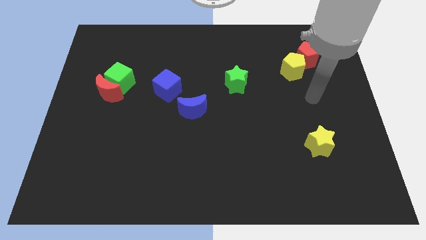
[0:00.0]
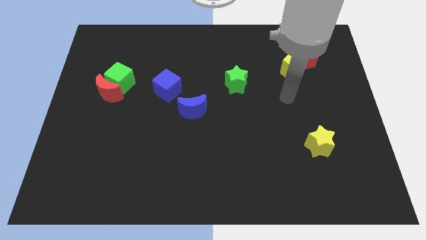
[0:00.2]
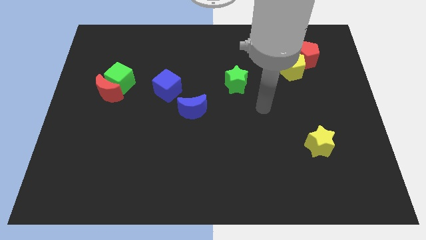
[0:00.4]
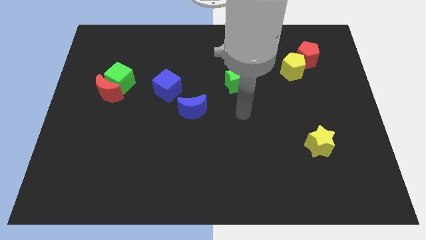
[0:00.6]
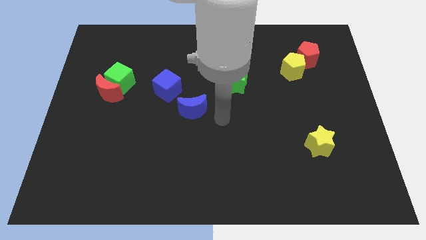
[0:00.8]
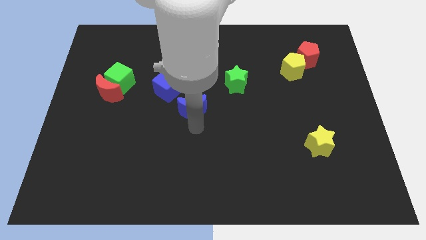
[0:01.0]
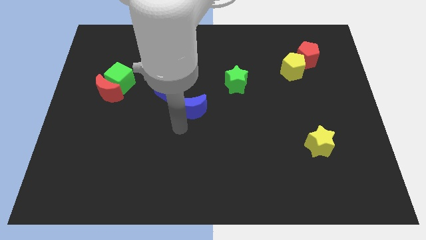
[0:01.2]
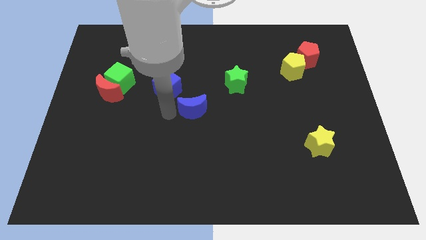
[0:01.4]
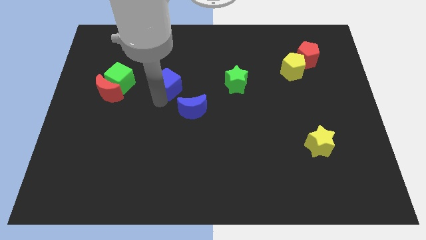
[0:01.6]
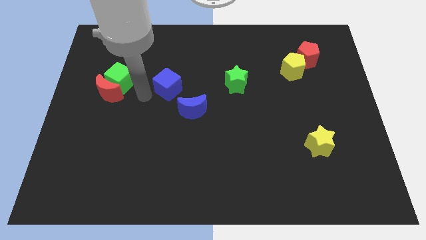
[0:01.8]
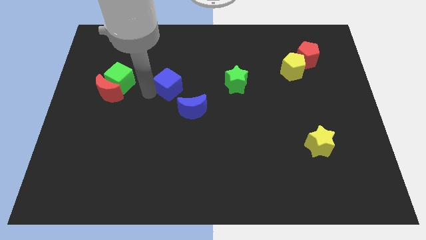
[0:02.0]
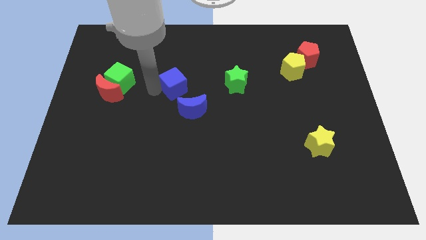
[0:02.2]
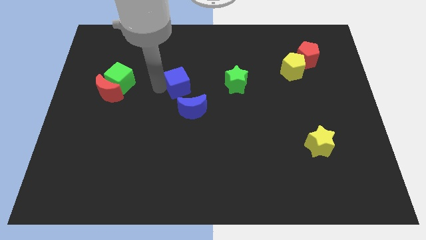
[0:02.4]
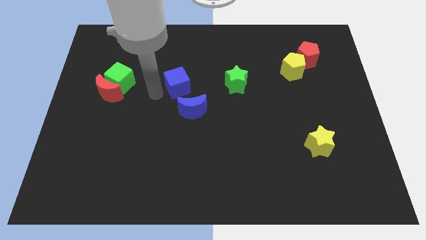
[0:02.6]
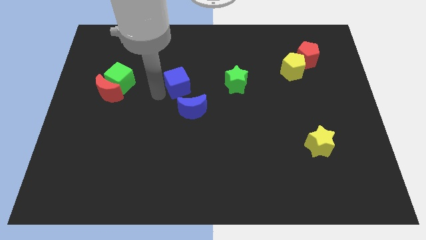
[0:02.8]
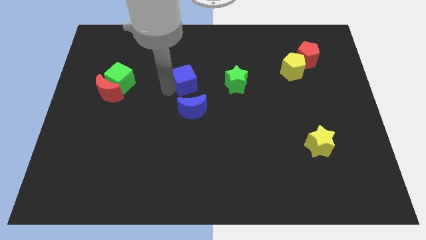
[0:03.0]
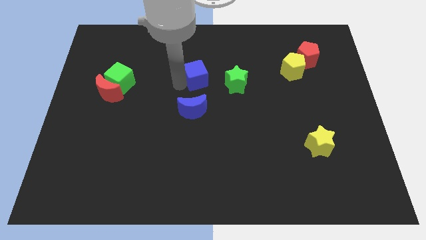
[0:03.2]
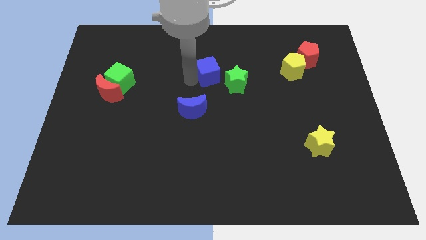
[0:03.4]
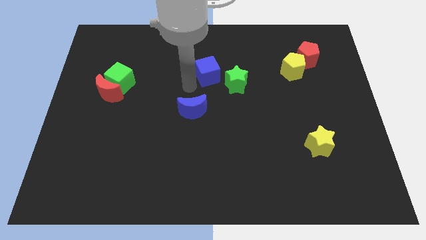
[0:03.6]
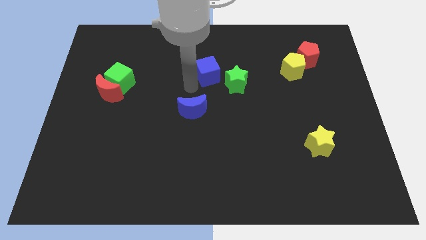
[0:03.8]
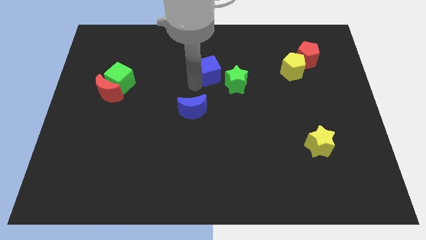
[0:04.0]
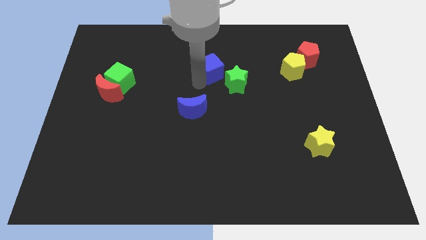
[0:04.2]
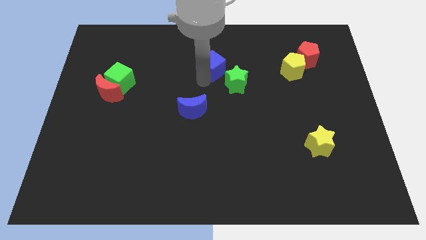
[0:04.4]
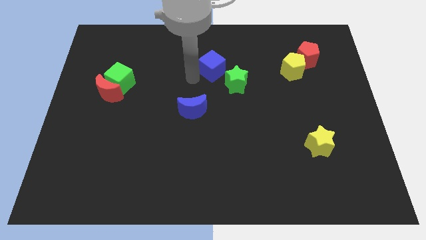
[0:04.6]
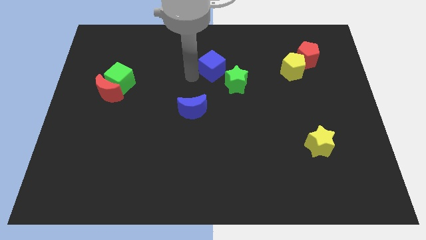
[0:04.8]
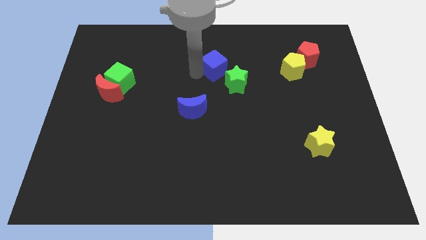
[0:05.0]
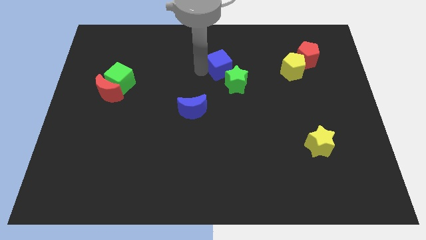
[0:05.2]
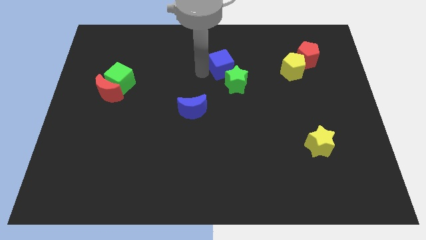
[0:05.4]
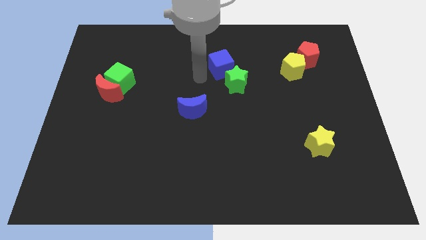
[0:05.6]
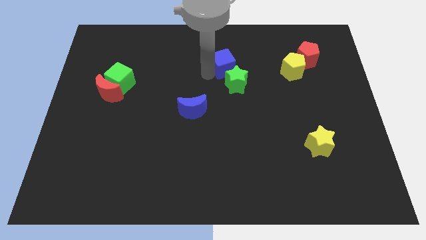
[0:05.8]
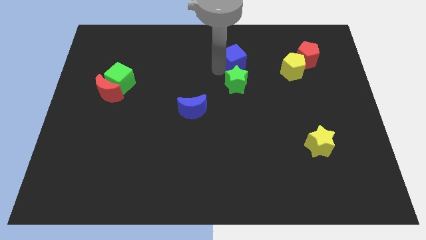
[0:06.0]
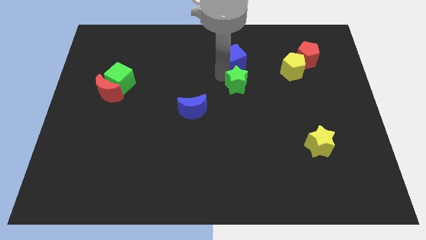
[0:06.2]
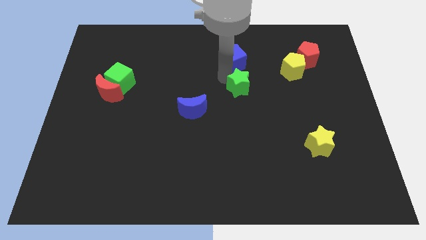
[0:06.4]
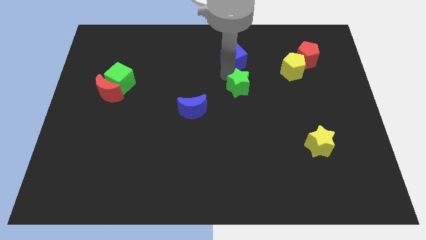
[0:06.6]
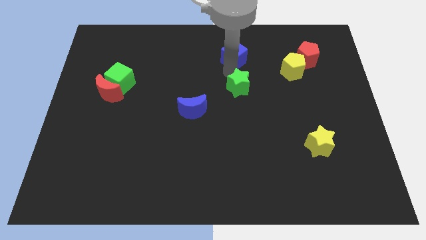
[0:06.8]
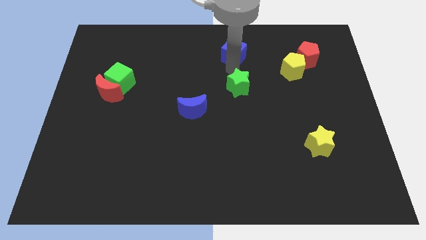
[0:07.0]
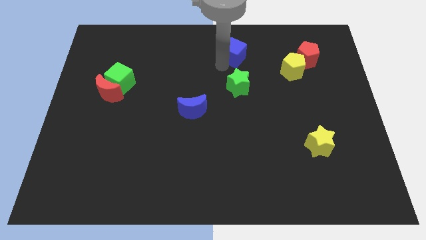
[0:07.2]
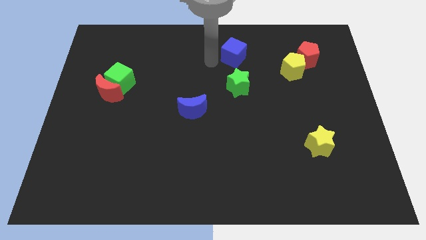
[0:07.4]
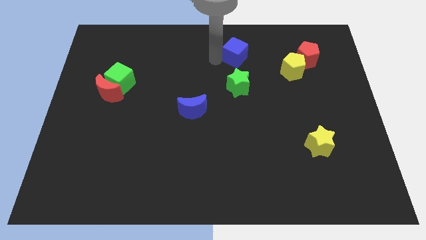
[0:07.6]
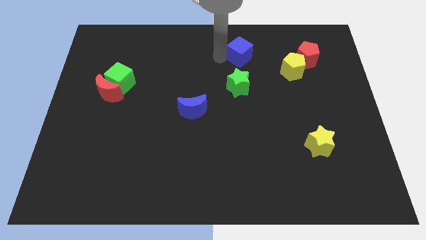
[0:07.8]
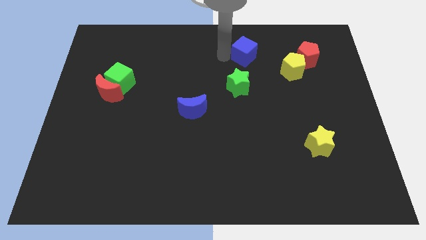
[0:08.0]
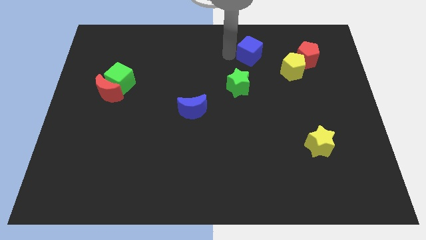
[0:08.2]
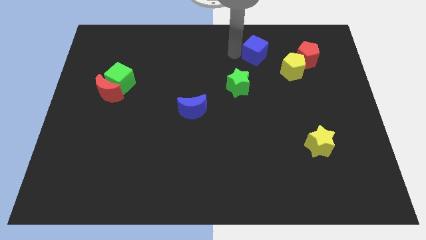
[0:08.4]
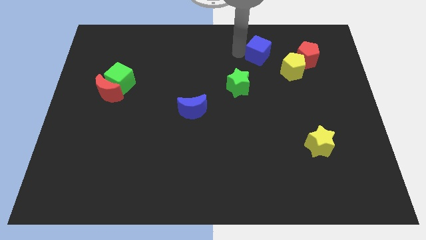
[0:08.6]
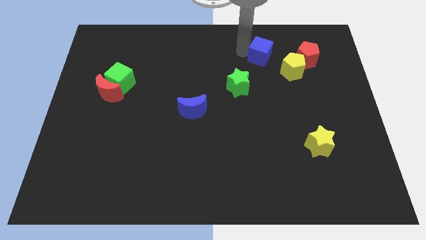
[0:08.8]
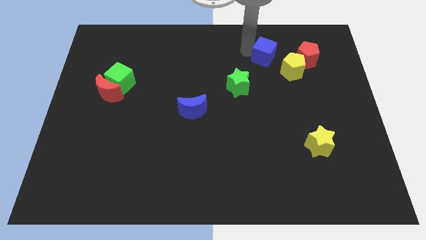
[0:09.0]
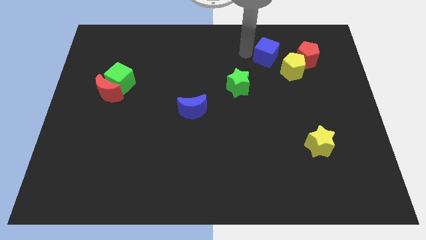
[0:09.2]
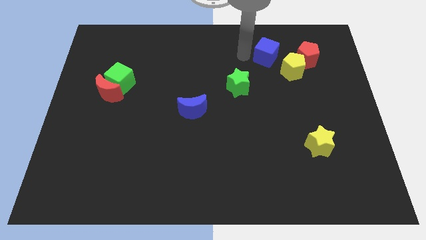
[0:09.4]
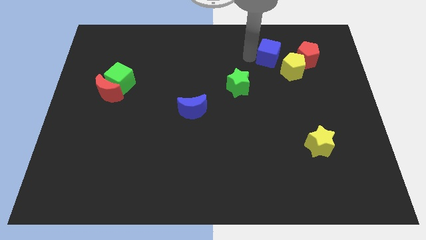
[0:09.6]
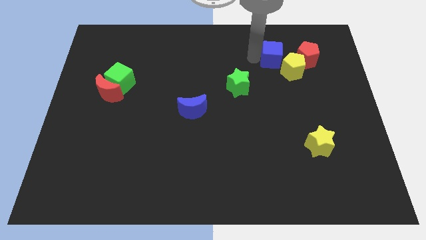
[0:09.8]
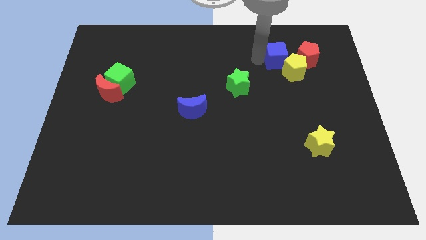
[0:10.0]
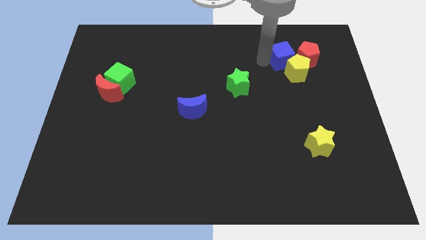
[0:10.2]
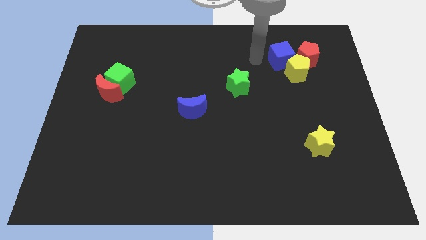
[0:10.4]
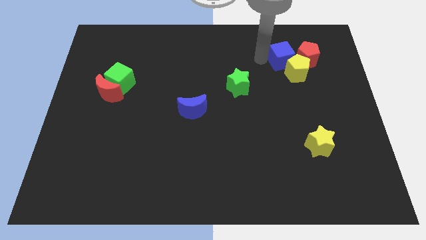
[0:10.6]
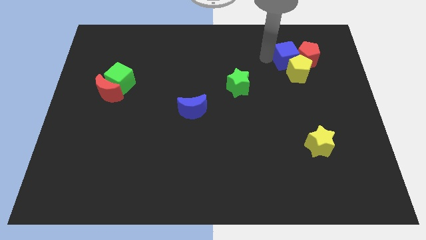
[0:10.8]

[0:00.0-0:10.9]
slide the blue cube next to the red pentagon

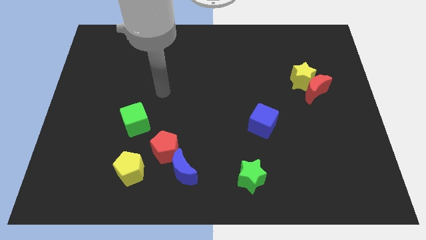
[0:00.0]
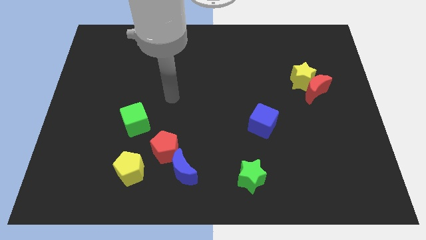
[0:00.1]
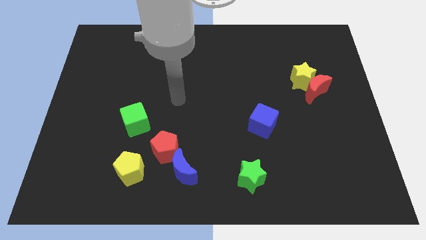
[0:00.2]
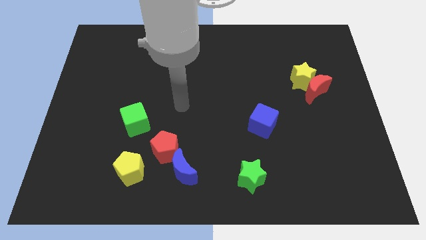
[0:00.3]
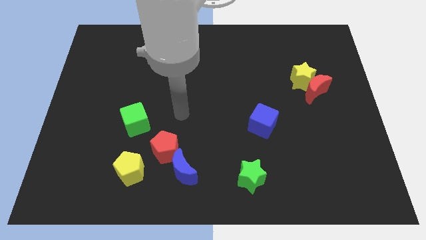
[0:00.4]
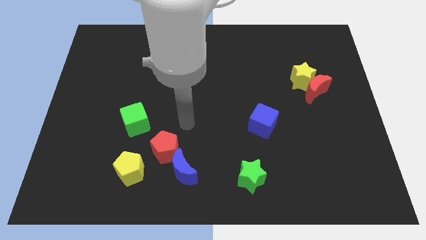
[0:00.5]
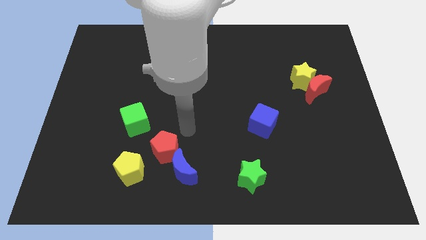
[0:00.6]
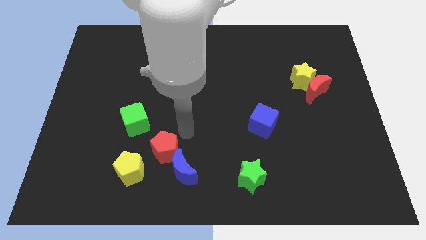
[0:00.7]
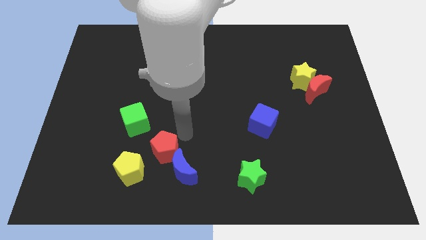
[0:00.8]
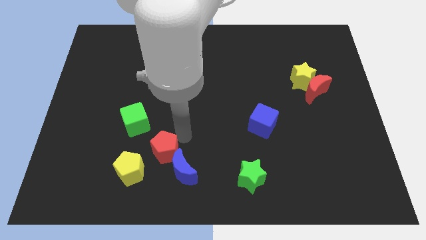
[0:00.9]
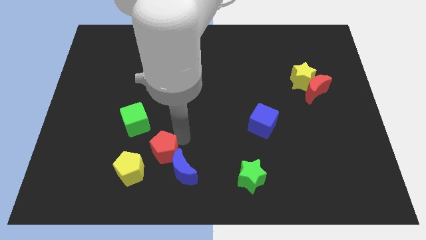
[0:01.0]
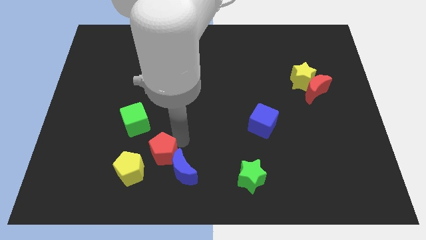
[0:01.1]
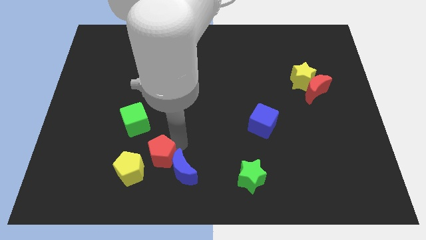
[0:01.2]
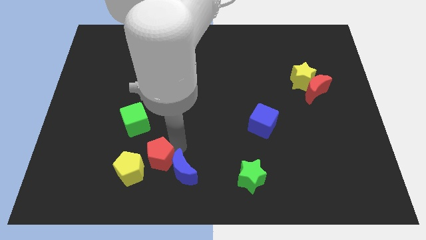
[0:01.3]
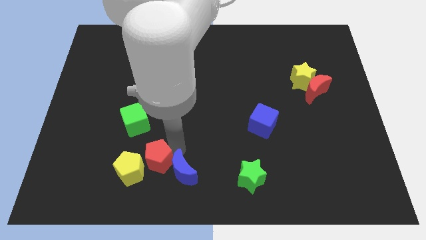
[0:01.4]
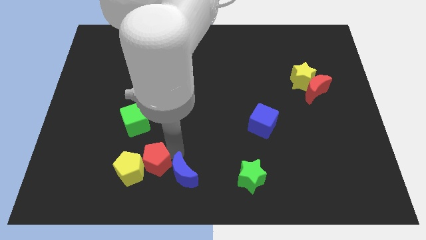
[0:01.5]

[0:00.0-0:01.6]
move the red pentagon to the yellow pentagon
